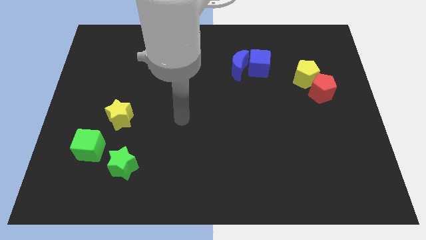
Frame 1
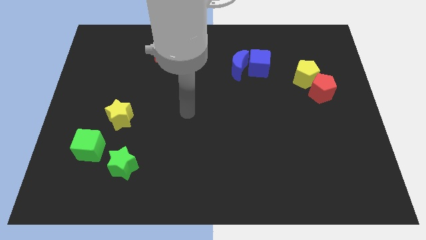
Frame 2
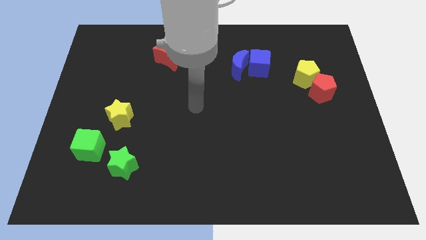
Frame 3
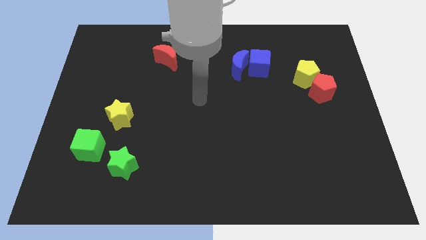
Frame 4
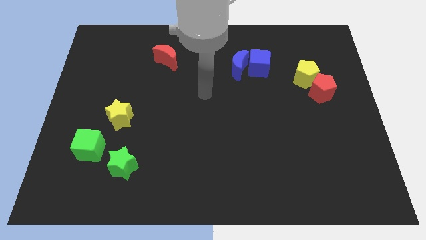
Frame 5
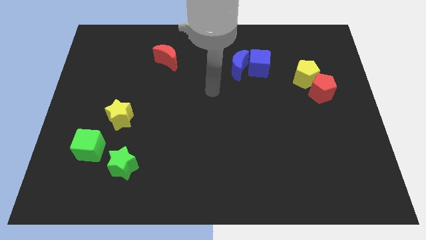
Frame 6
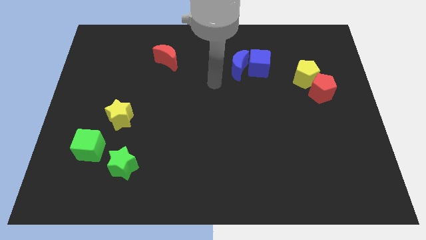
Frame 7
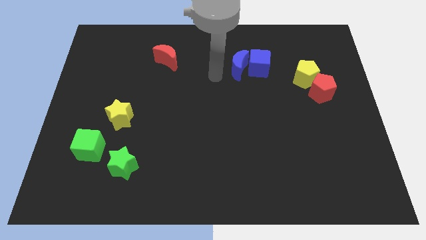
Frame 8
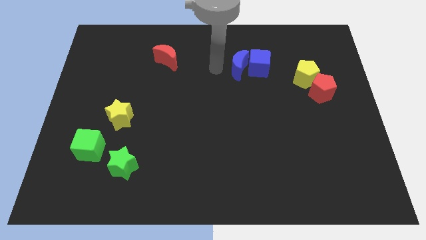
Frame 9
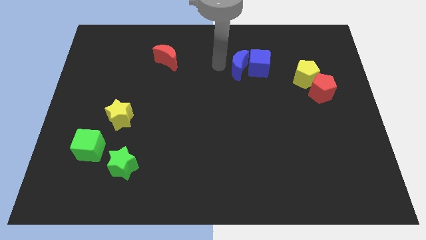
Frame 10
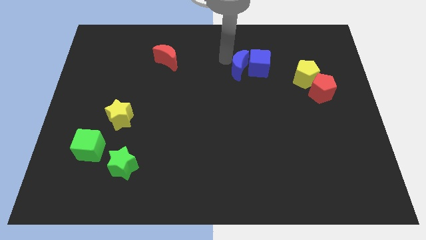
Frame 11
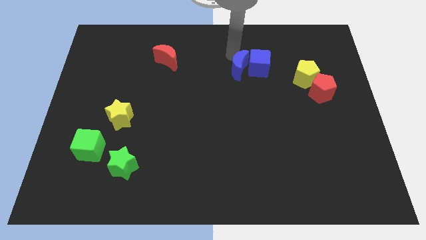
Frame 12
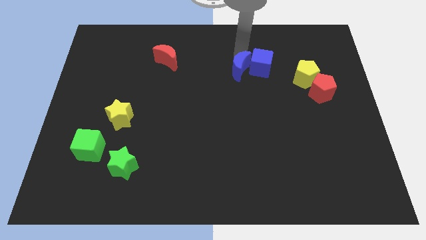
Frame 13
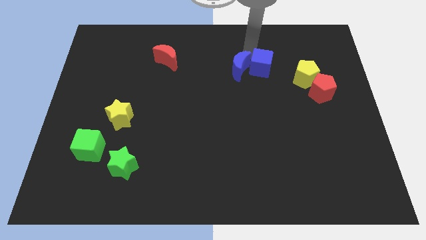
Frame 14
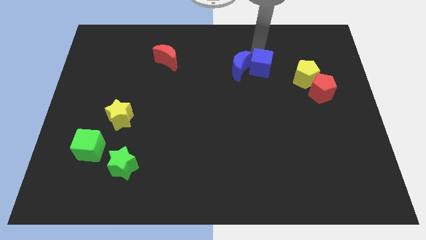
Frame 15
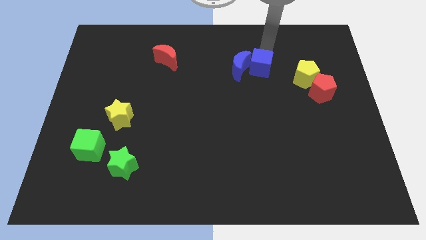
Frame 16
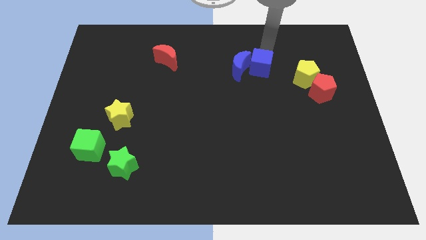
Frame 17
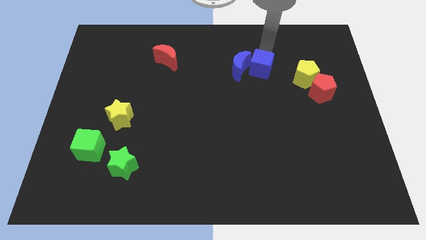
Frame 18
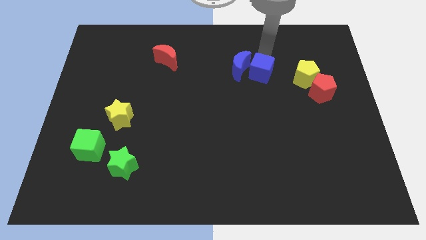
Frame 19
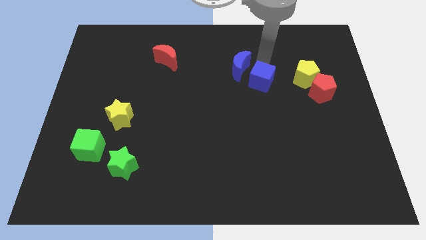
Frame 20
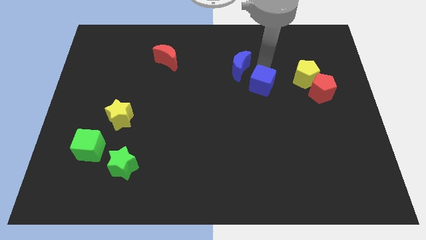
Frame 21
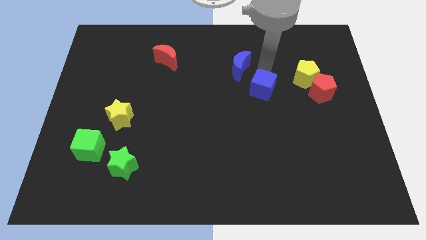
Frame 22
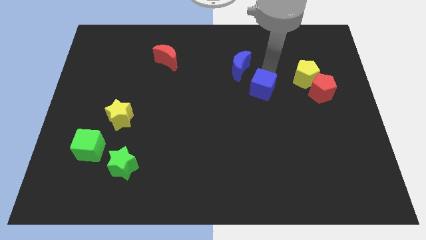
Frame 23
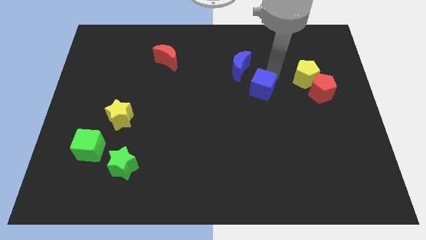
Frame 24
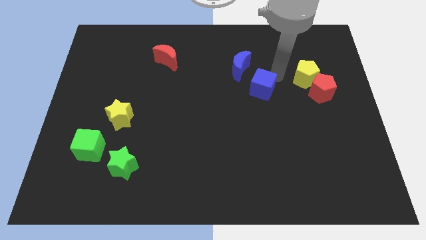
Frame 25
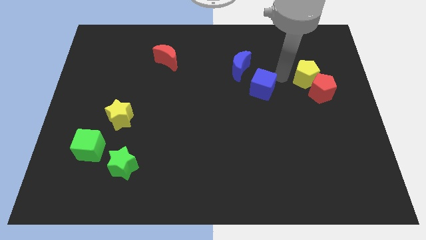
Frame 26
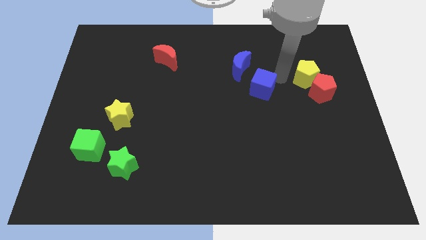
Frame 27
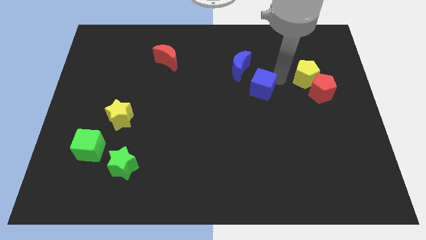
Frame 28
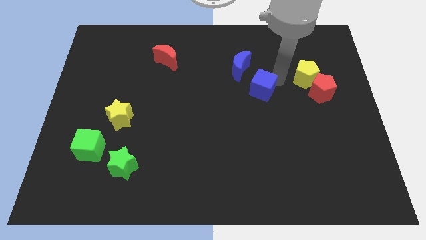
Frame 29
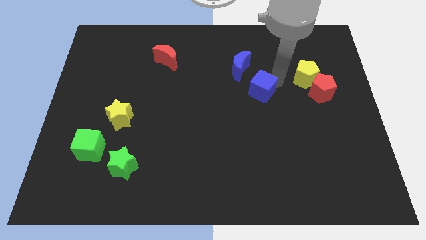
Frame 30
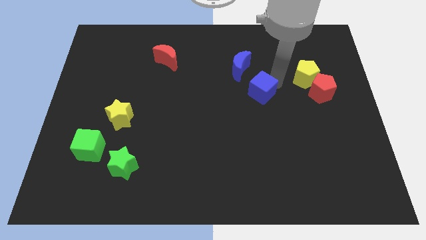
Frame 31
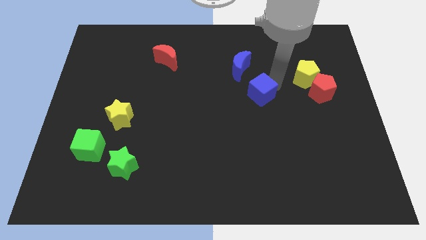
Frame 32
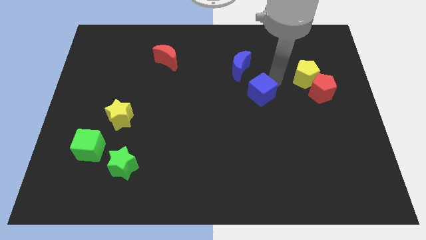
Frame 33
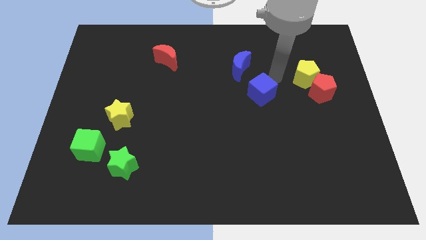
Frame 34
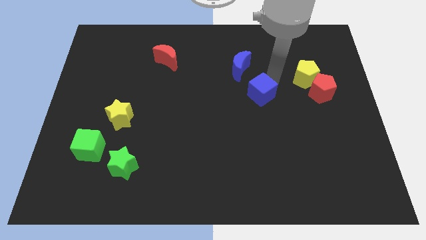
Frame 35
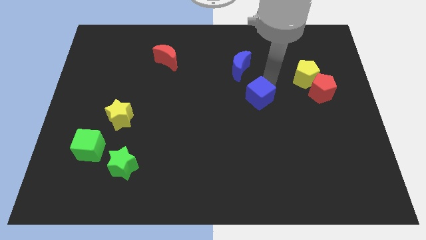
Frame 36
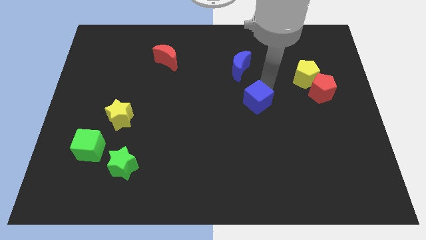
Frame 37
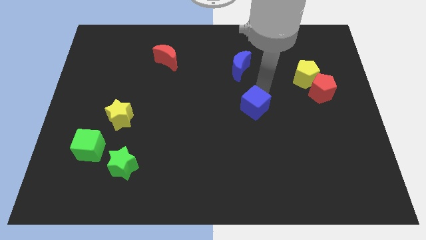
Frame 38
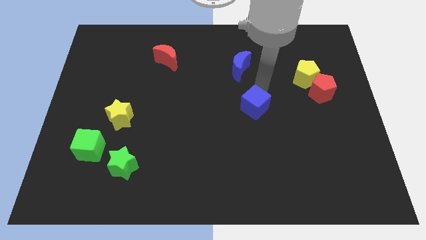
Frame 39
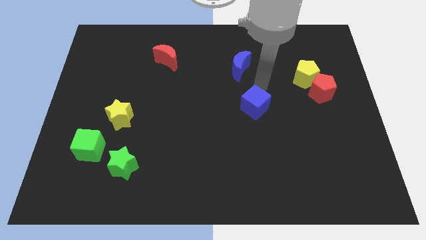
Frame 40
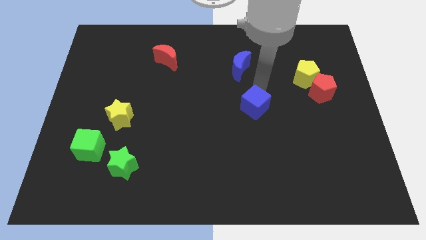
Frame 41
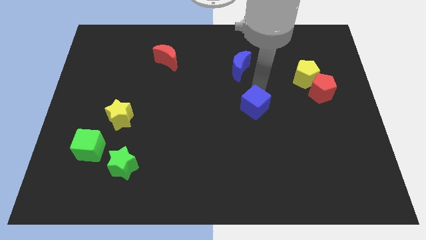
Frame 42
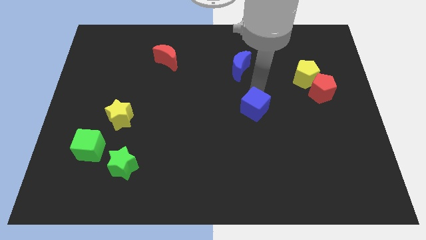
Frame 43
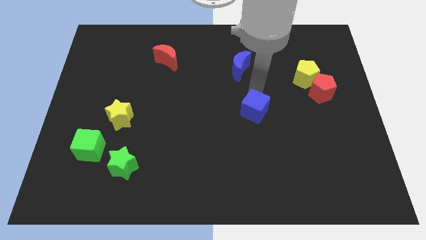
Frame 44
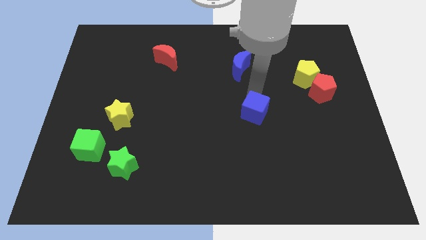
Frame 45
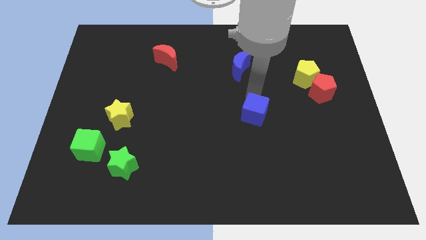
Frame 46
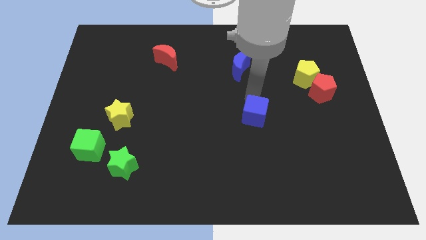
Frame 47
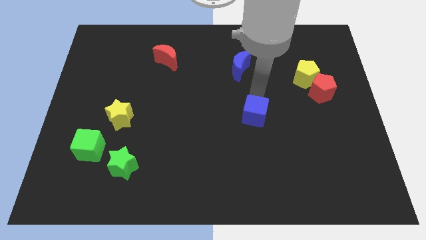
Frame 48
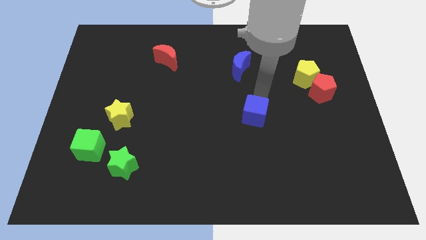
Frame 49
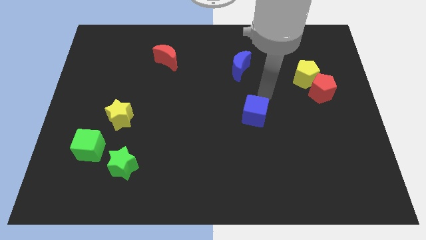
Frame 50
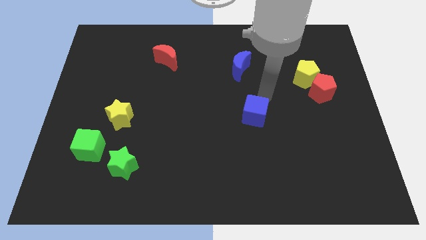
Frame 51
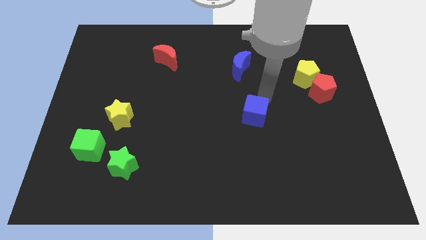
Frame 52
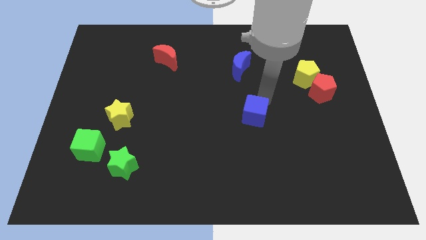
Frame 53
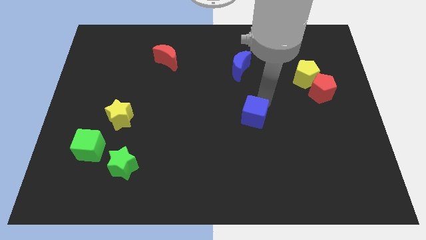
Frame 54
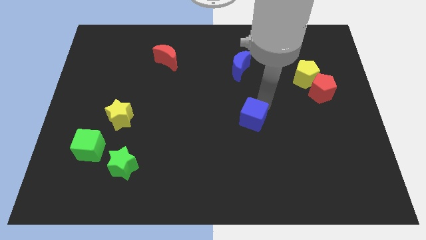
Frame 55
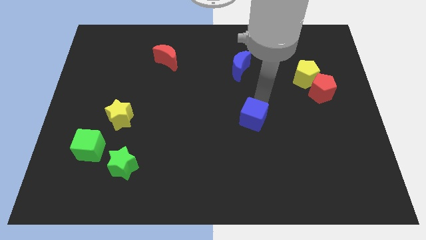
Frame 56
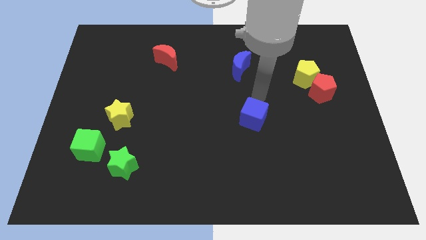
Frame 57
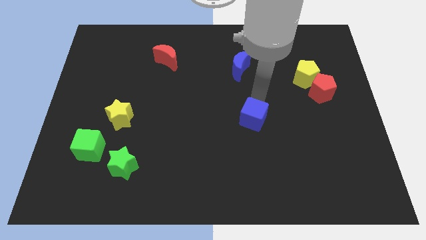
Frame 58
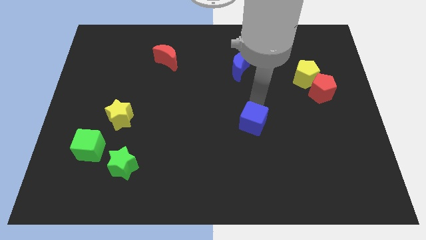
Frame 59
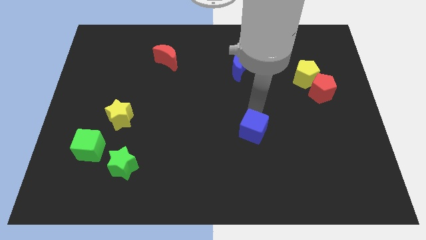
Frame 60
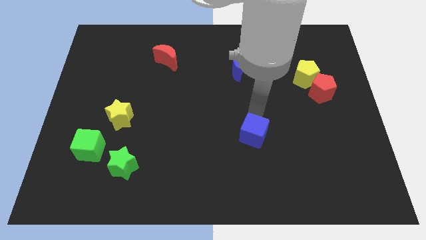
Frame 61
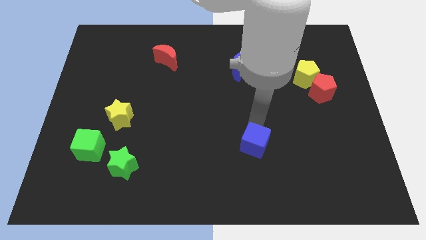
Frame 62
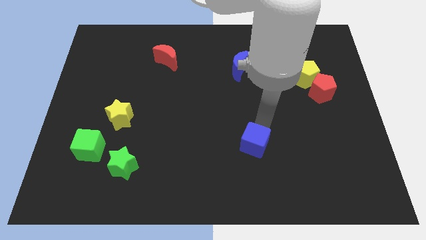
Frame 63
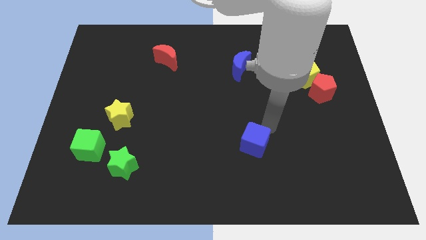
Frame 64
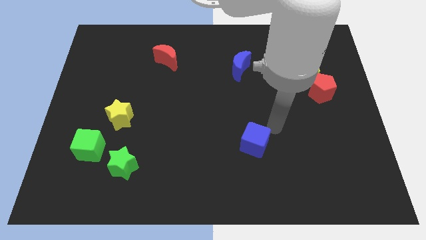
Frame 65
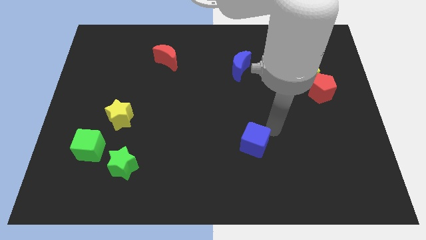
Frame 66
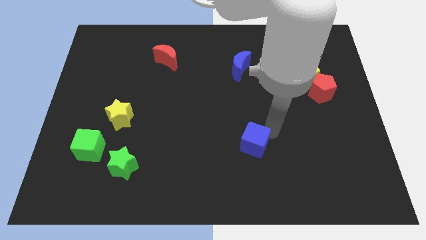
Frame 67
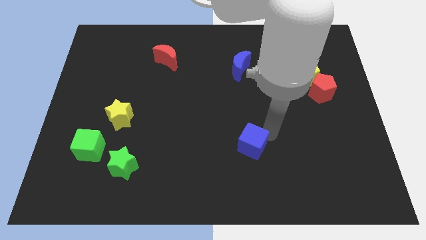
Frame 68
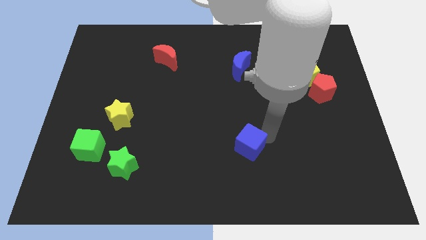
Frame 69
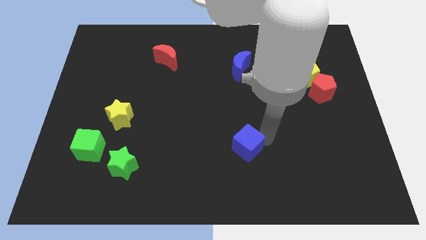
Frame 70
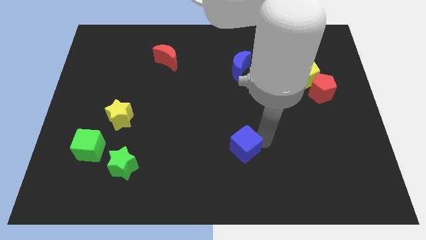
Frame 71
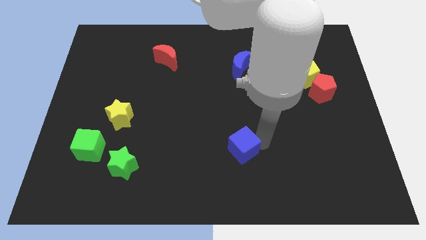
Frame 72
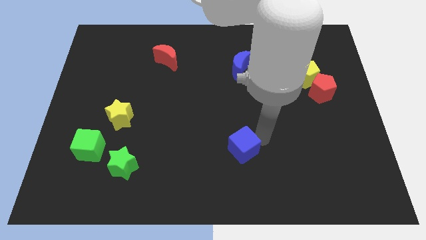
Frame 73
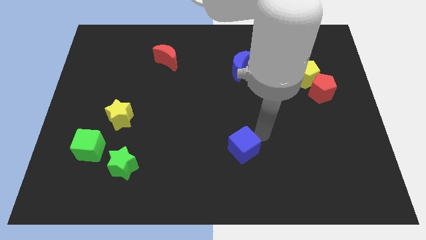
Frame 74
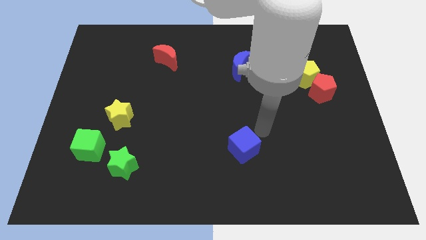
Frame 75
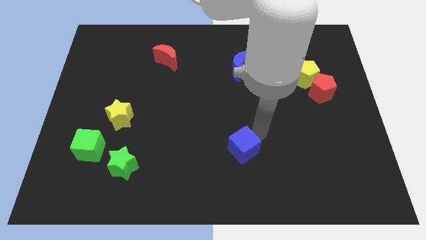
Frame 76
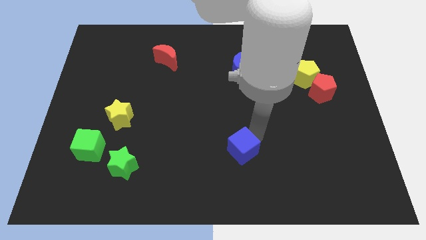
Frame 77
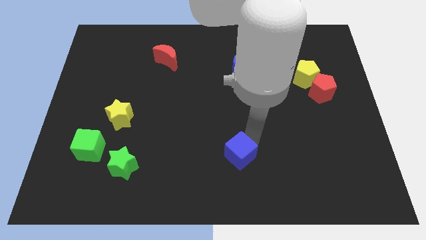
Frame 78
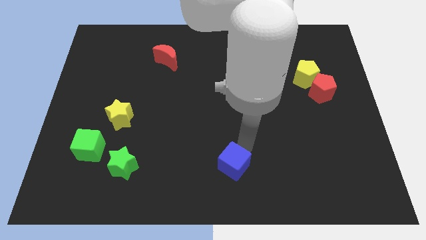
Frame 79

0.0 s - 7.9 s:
slide the blue cube to the bottom
